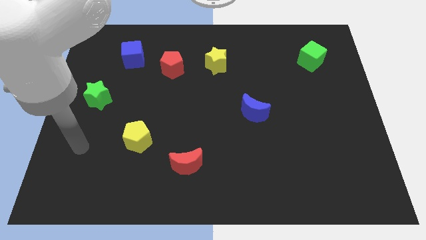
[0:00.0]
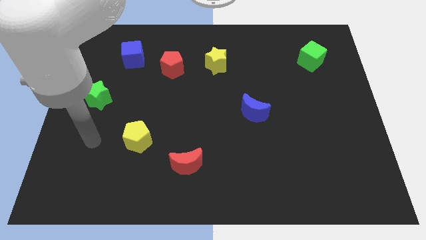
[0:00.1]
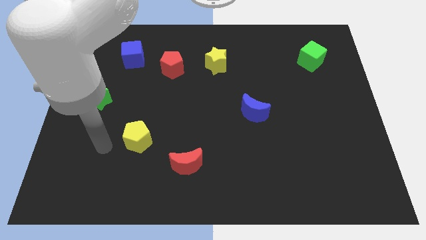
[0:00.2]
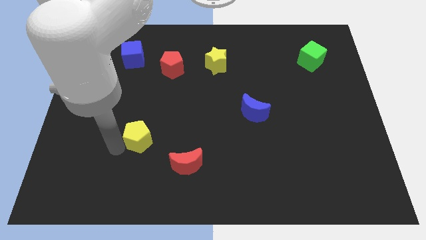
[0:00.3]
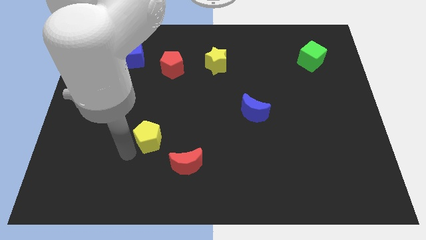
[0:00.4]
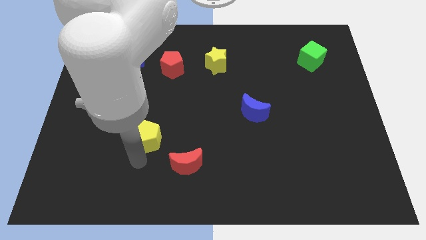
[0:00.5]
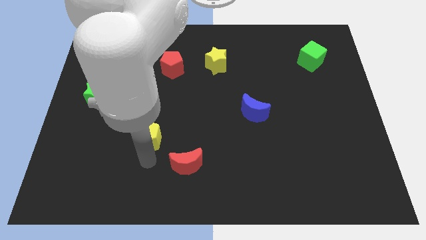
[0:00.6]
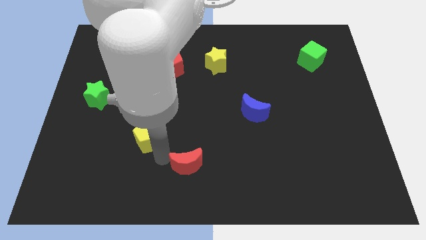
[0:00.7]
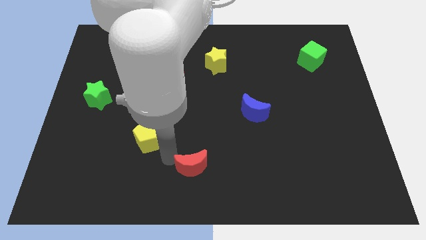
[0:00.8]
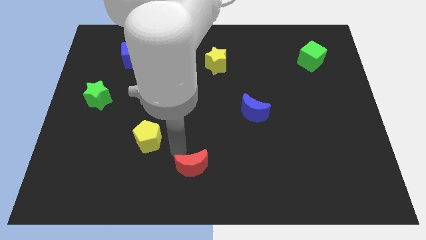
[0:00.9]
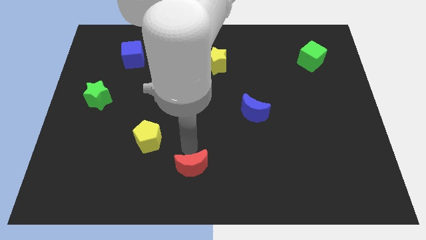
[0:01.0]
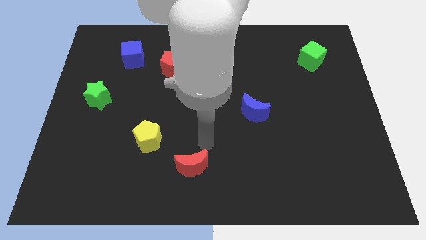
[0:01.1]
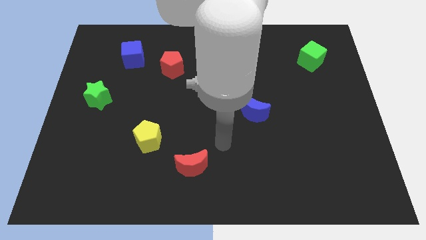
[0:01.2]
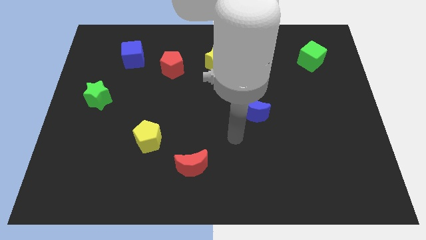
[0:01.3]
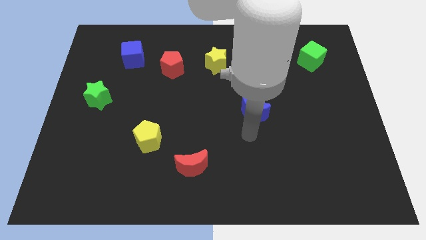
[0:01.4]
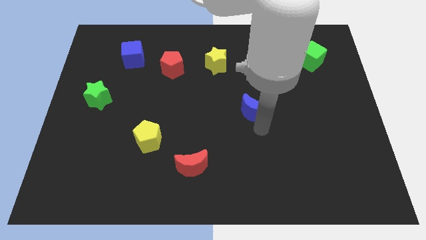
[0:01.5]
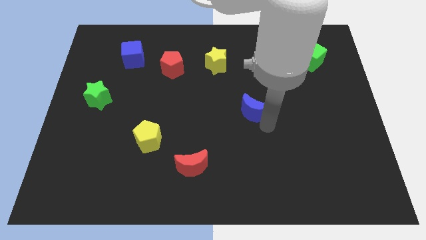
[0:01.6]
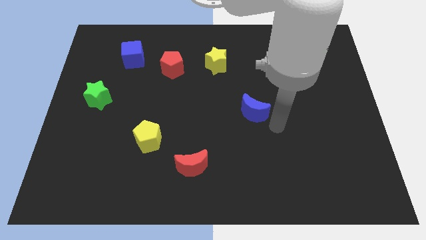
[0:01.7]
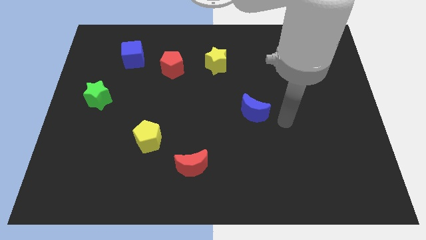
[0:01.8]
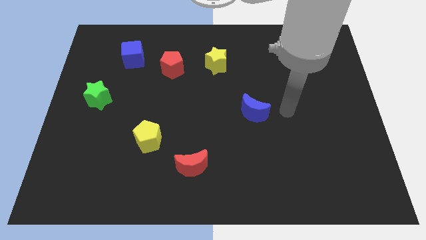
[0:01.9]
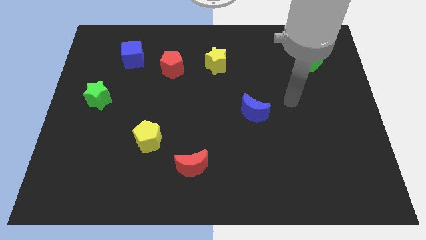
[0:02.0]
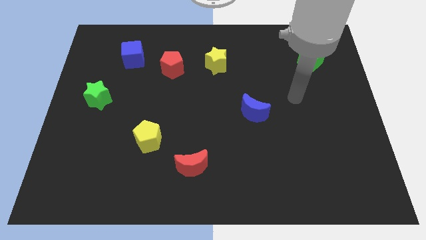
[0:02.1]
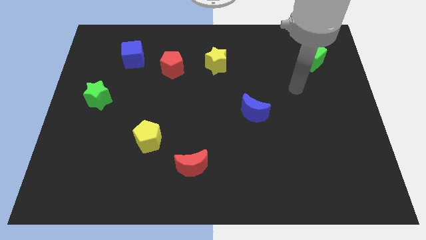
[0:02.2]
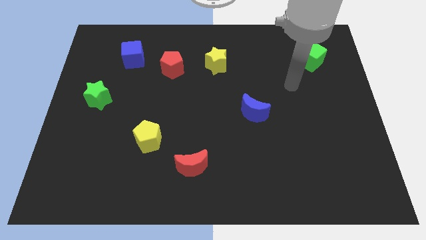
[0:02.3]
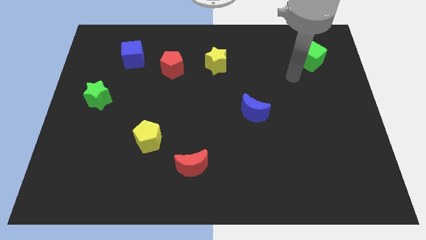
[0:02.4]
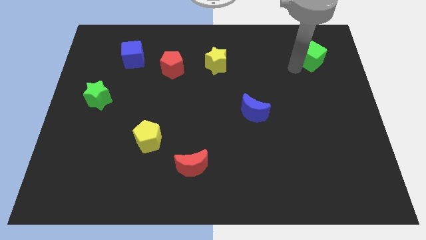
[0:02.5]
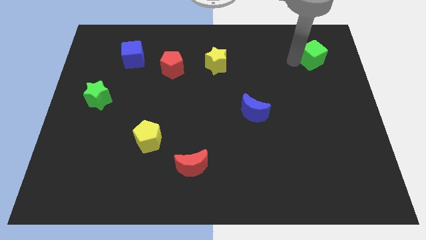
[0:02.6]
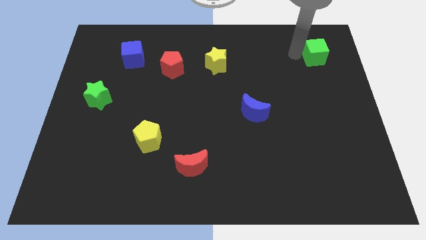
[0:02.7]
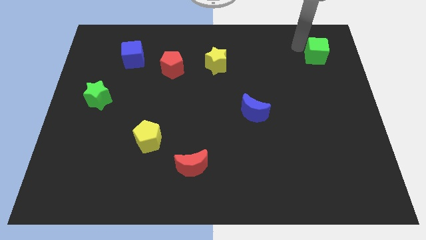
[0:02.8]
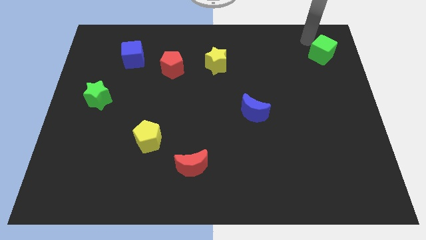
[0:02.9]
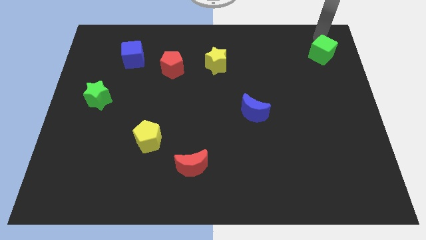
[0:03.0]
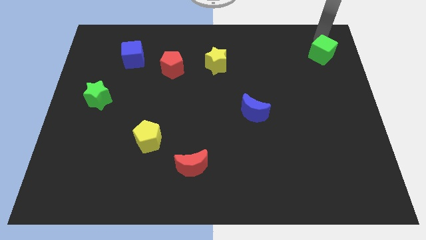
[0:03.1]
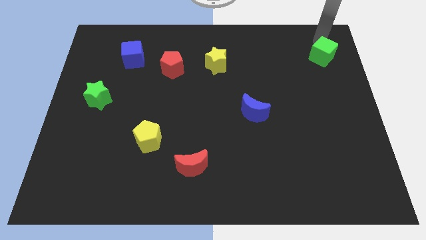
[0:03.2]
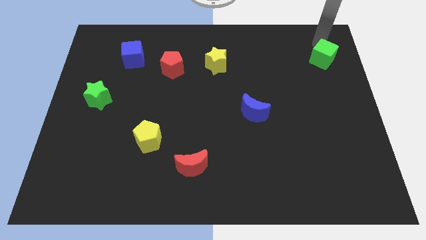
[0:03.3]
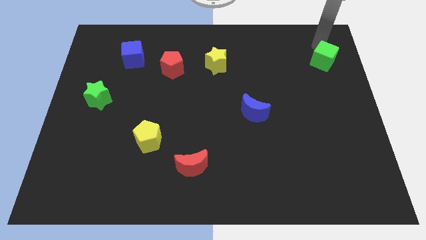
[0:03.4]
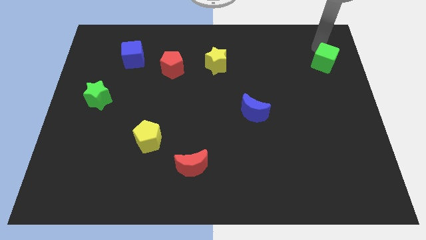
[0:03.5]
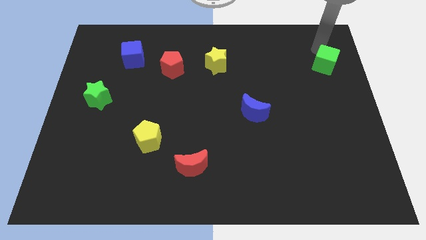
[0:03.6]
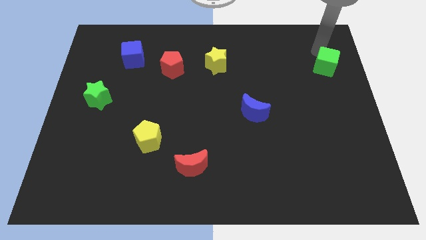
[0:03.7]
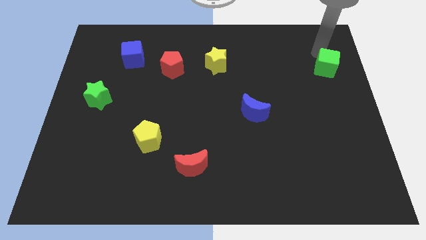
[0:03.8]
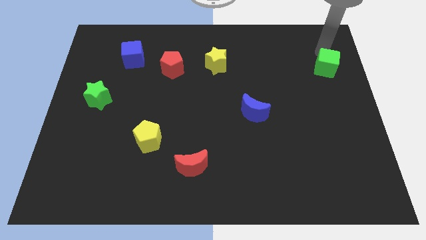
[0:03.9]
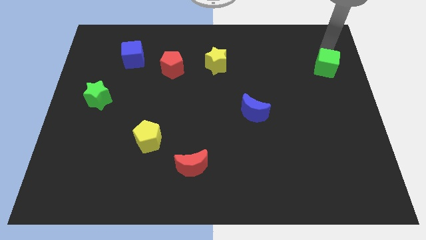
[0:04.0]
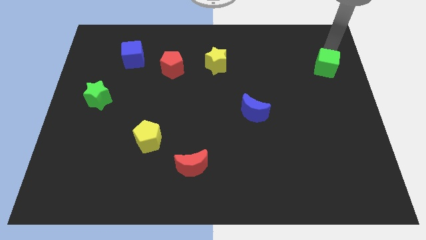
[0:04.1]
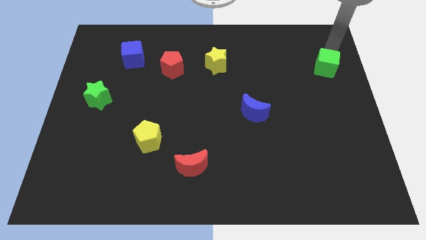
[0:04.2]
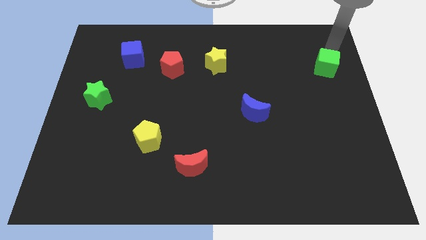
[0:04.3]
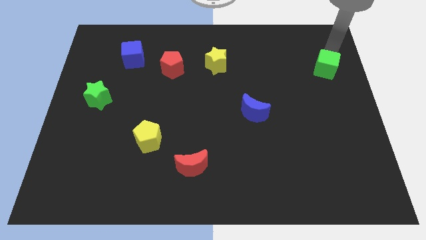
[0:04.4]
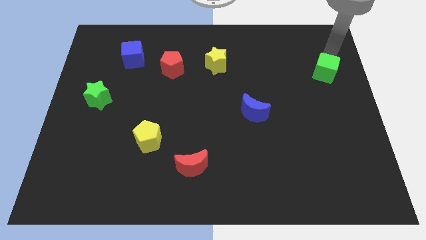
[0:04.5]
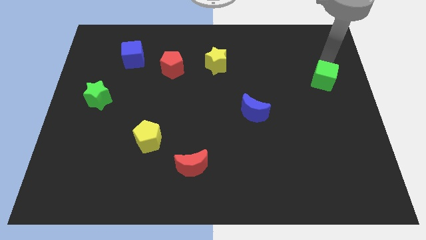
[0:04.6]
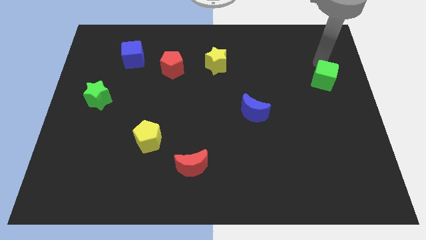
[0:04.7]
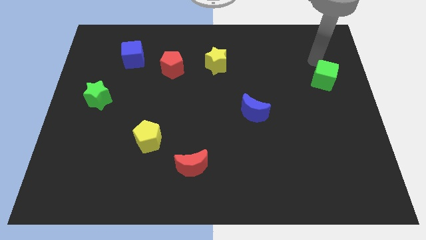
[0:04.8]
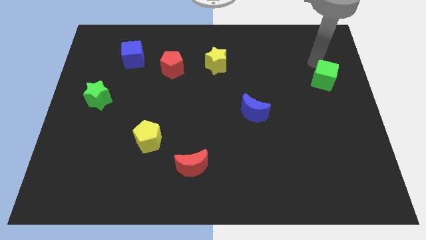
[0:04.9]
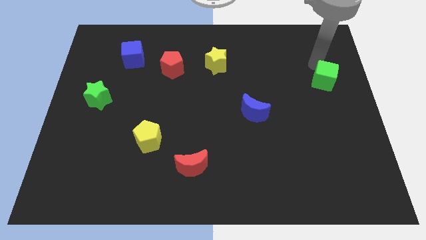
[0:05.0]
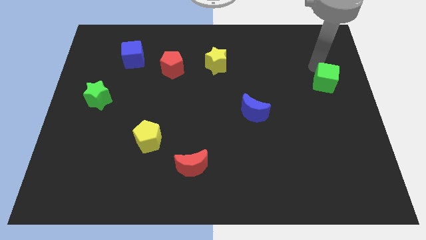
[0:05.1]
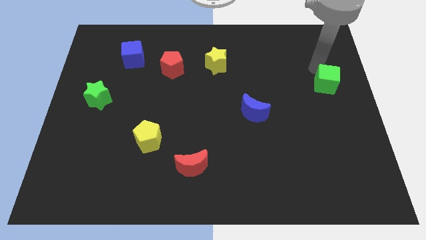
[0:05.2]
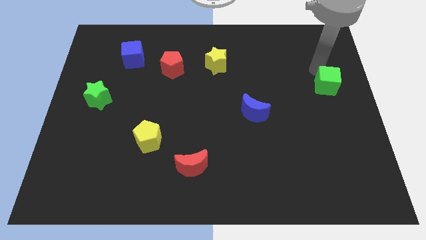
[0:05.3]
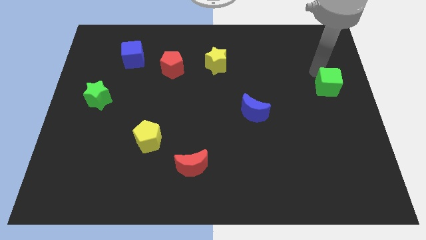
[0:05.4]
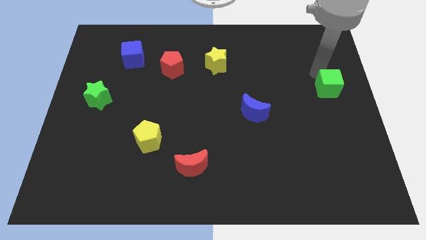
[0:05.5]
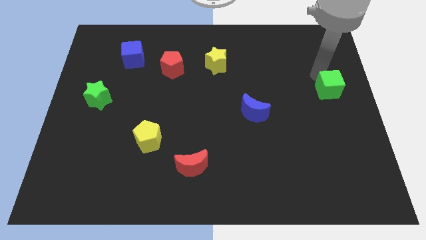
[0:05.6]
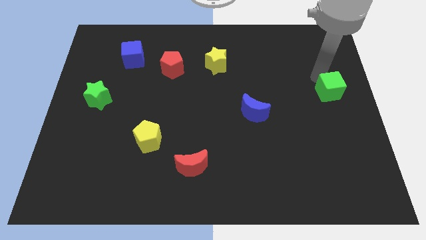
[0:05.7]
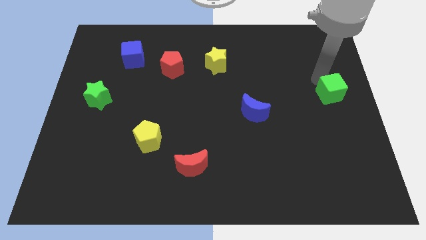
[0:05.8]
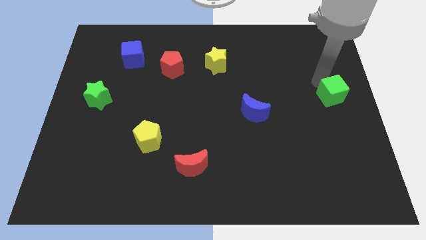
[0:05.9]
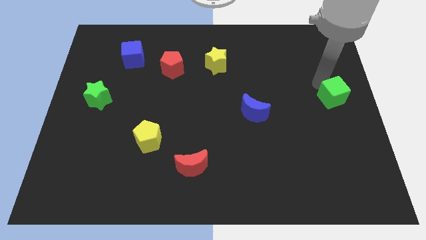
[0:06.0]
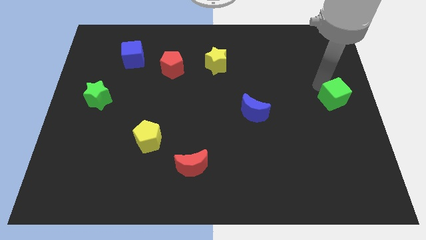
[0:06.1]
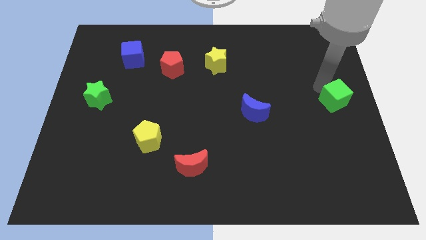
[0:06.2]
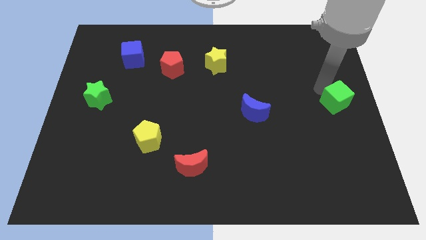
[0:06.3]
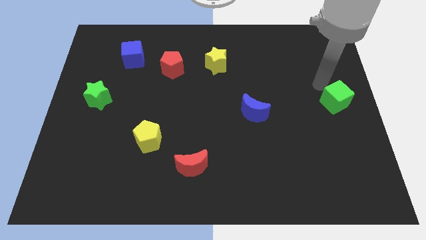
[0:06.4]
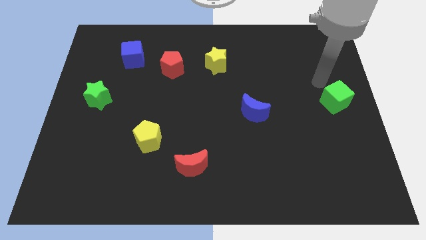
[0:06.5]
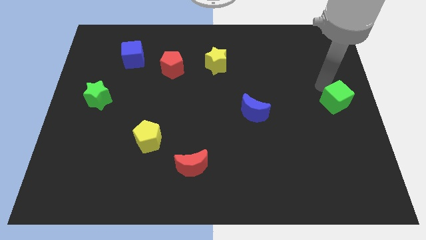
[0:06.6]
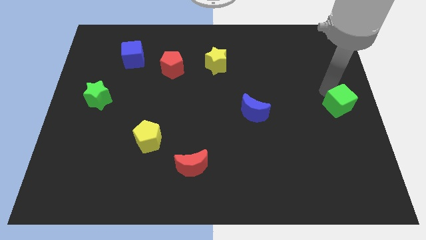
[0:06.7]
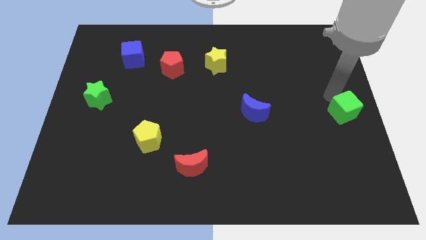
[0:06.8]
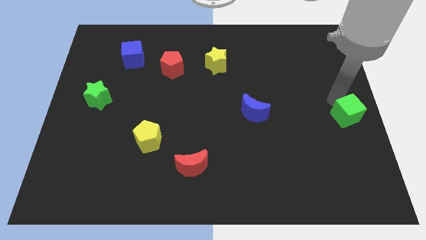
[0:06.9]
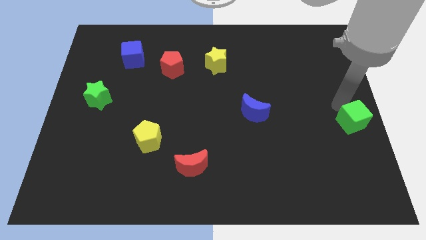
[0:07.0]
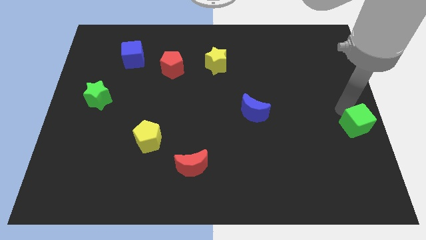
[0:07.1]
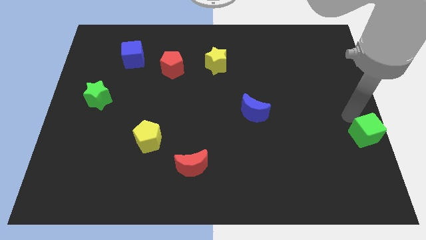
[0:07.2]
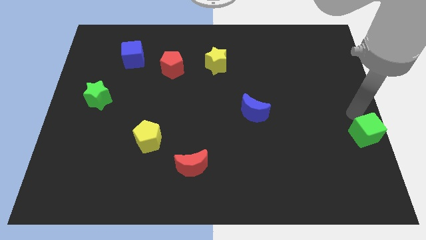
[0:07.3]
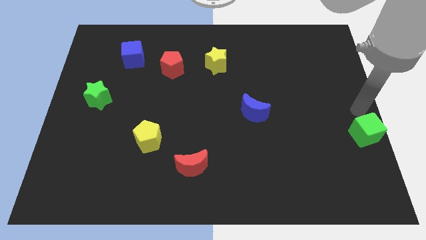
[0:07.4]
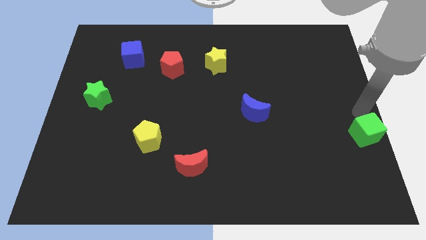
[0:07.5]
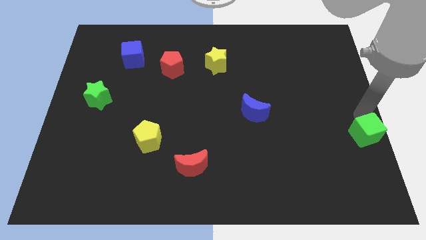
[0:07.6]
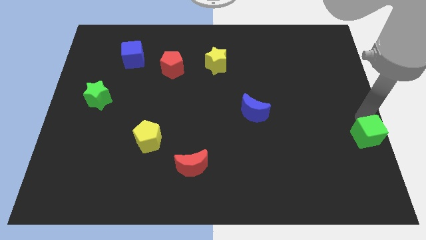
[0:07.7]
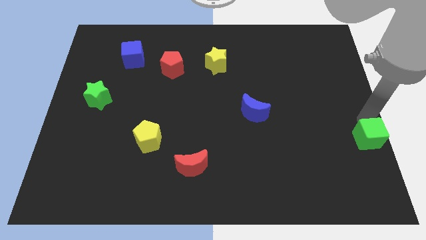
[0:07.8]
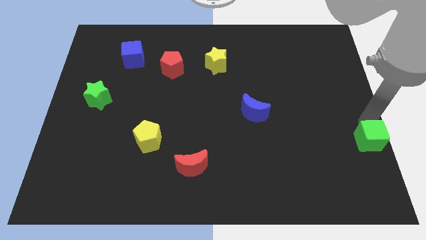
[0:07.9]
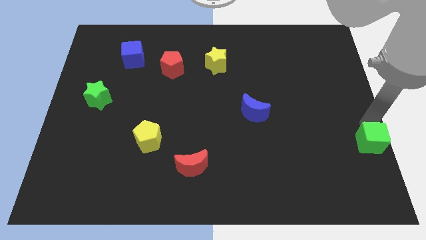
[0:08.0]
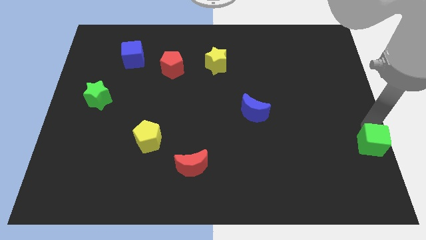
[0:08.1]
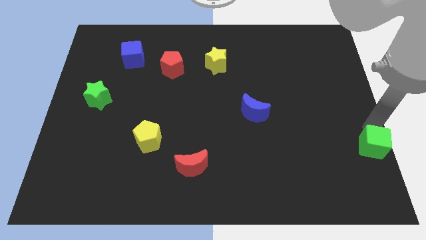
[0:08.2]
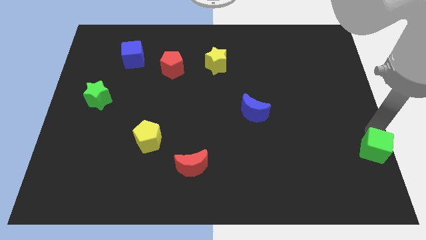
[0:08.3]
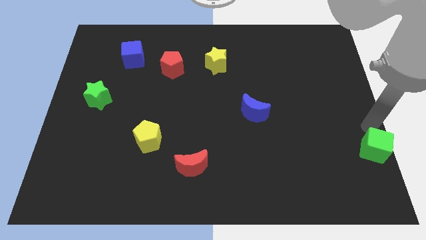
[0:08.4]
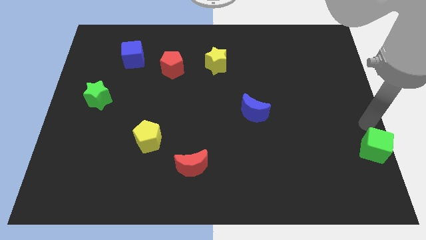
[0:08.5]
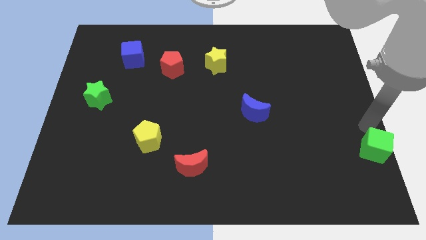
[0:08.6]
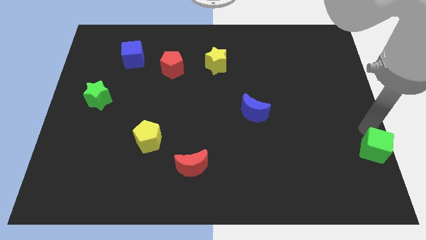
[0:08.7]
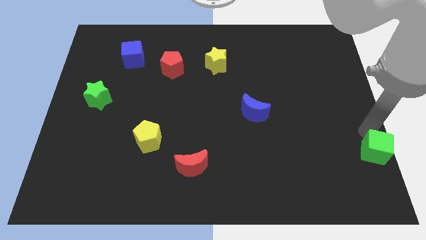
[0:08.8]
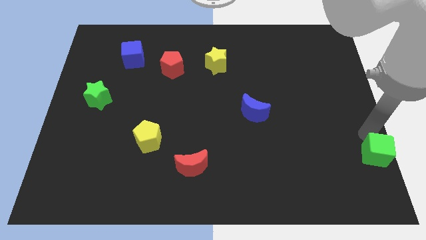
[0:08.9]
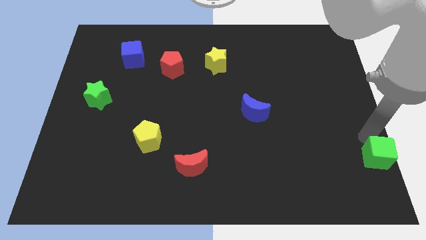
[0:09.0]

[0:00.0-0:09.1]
put the green cube to the bottom right of the board
